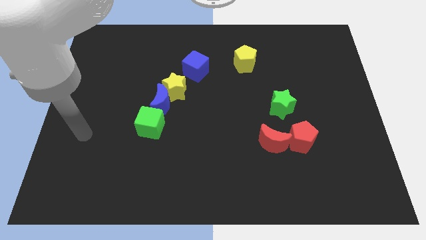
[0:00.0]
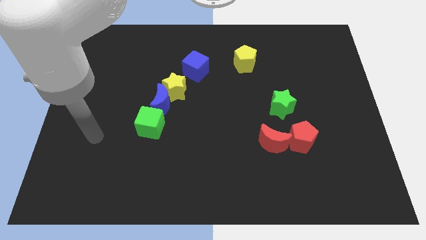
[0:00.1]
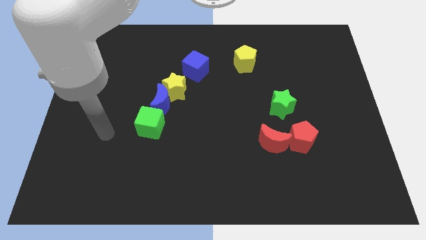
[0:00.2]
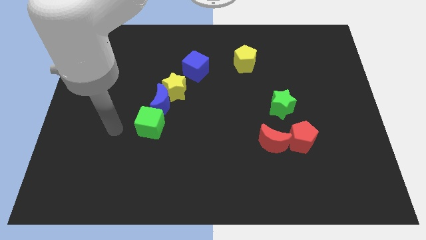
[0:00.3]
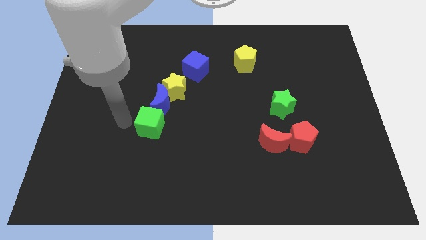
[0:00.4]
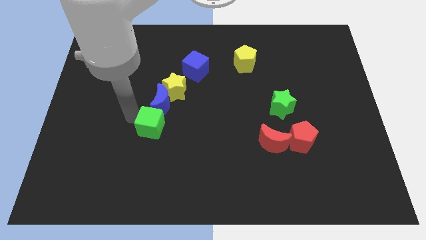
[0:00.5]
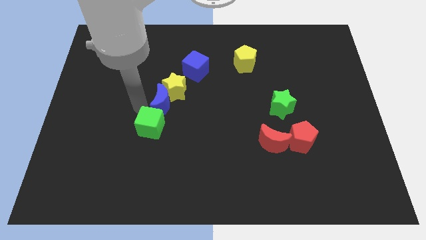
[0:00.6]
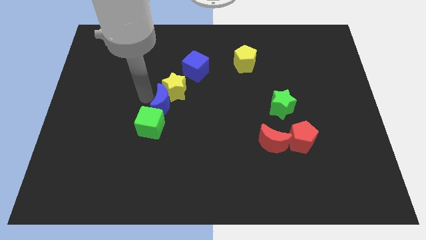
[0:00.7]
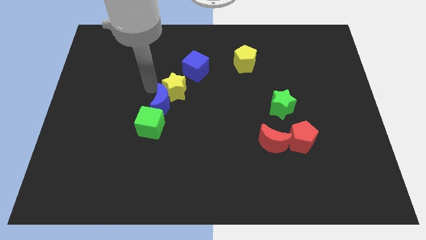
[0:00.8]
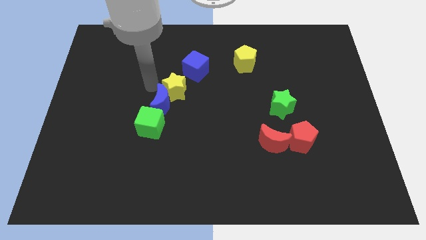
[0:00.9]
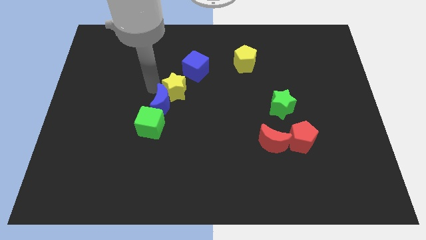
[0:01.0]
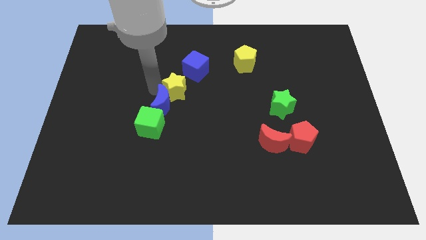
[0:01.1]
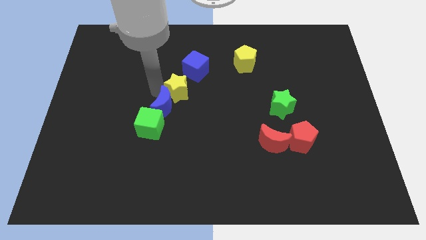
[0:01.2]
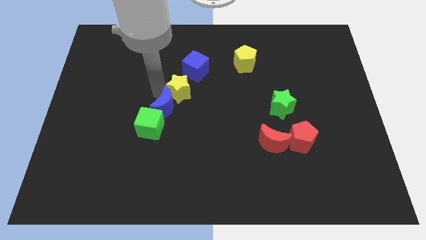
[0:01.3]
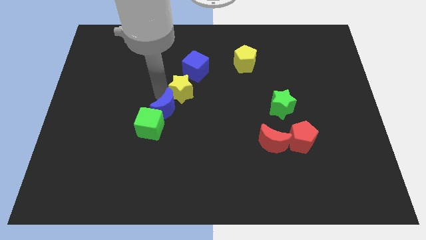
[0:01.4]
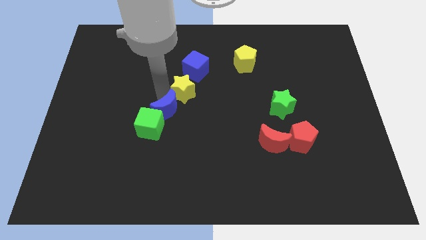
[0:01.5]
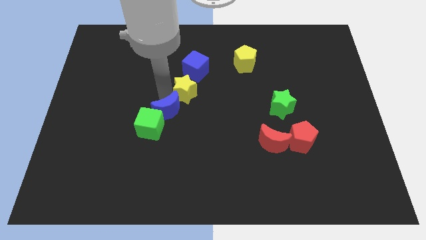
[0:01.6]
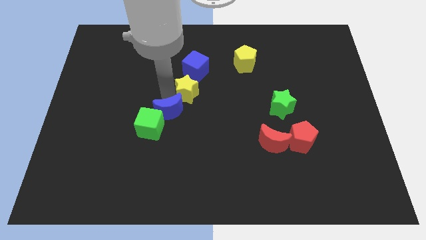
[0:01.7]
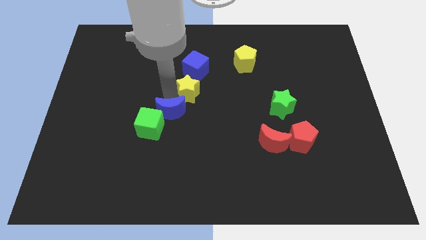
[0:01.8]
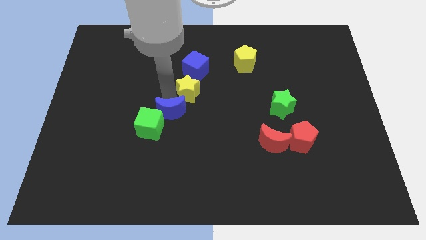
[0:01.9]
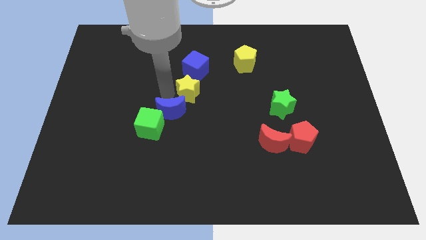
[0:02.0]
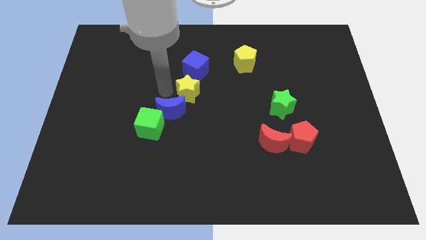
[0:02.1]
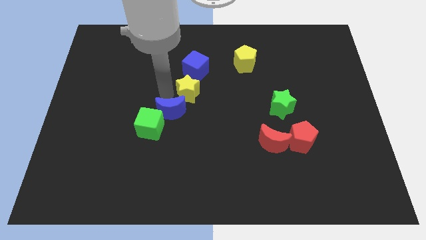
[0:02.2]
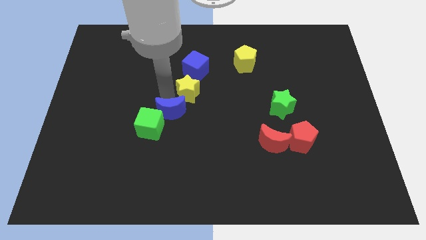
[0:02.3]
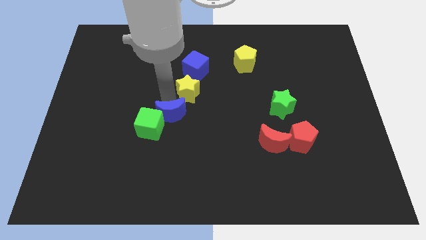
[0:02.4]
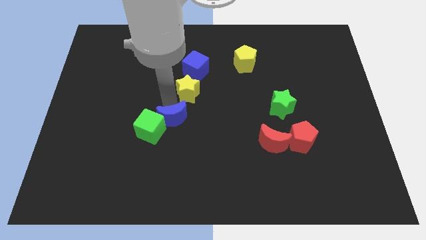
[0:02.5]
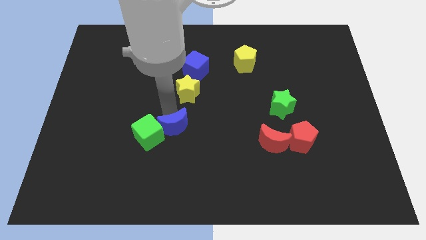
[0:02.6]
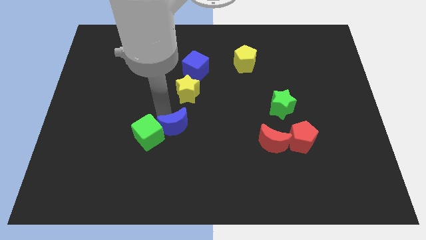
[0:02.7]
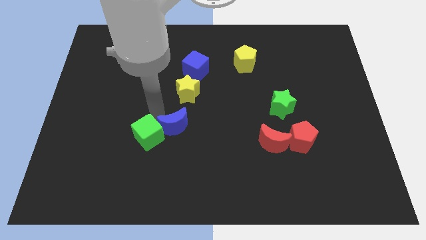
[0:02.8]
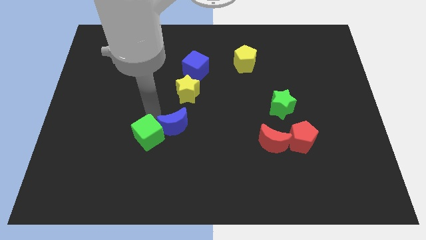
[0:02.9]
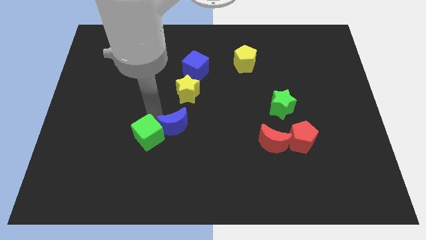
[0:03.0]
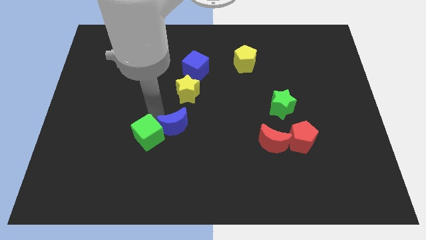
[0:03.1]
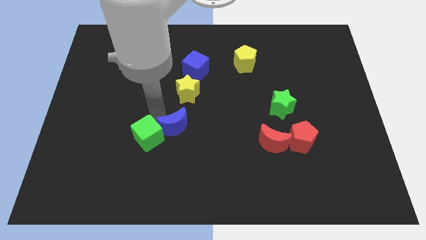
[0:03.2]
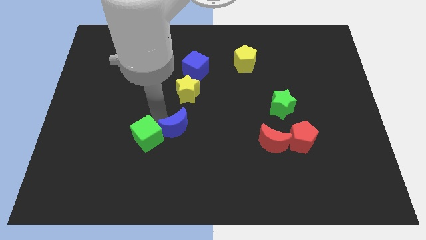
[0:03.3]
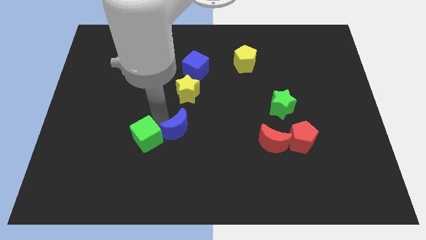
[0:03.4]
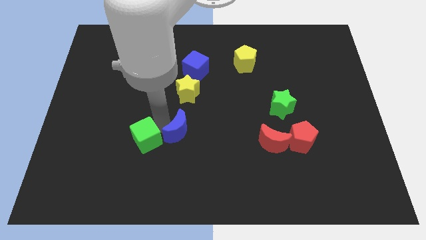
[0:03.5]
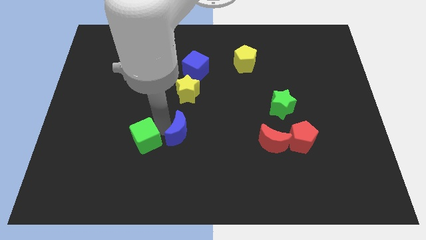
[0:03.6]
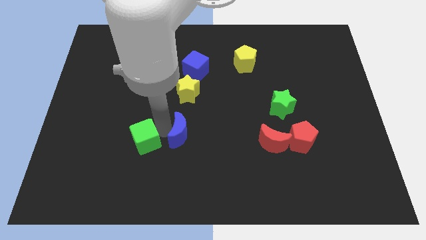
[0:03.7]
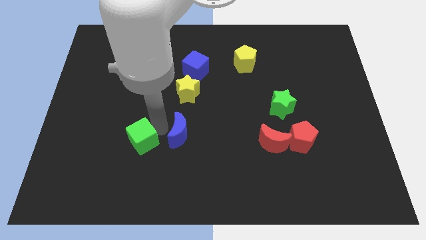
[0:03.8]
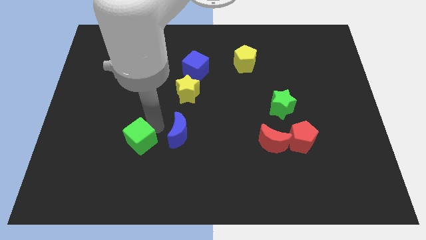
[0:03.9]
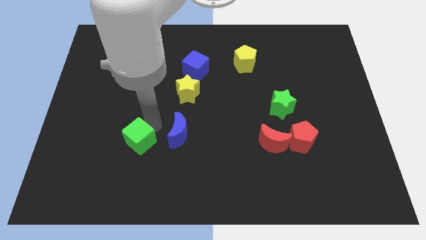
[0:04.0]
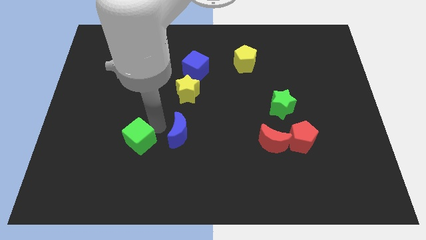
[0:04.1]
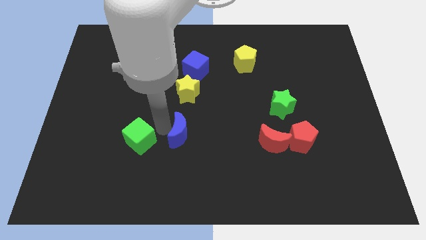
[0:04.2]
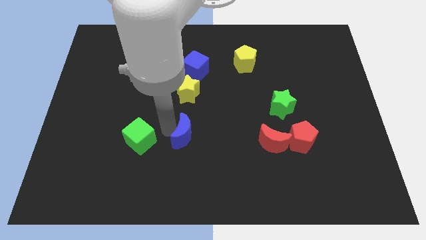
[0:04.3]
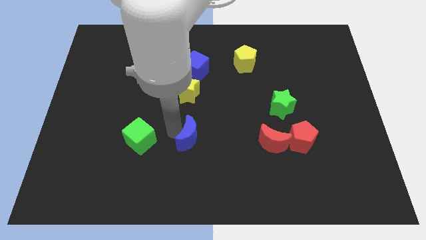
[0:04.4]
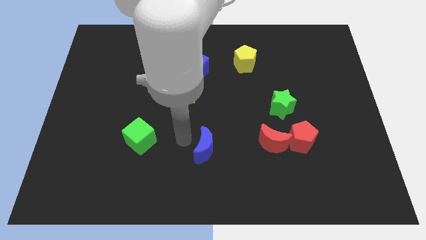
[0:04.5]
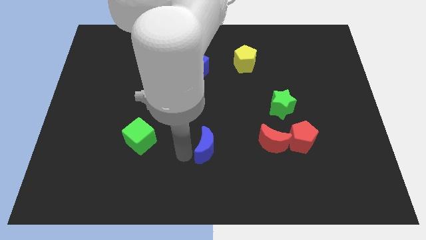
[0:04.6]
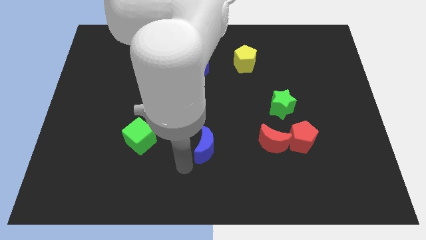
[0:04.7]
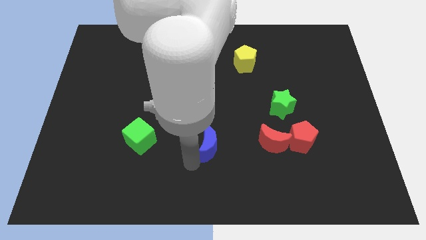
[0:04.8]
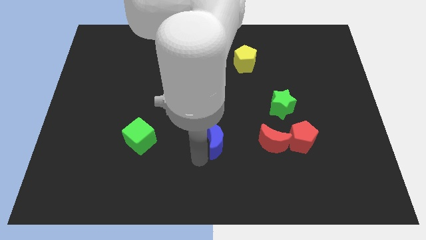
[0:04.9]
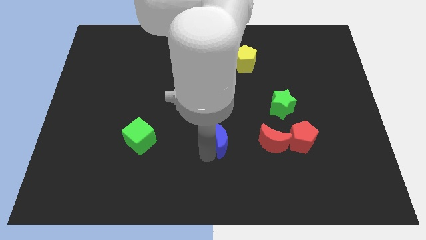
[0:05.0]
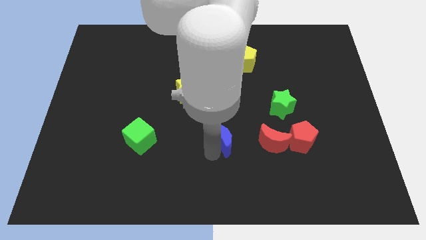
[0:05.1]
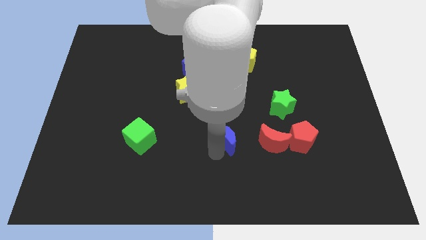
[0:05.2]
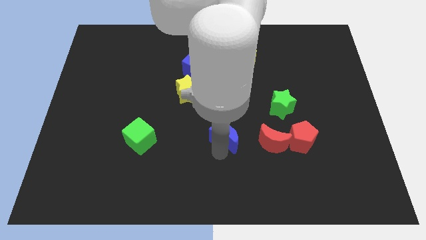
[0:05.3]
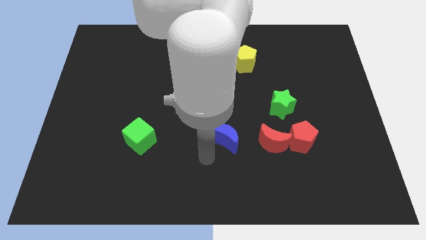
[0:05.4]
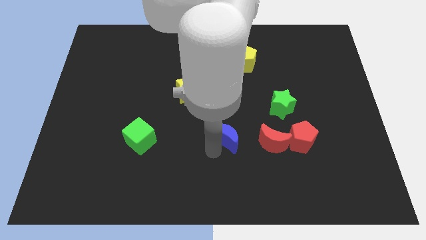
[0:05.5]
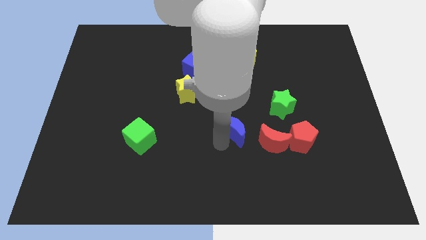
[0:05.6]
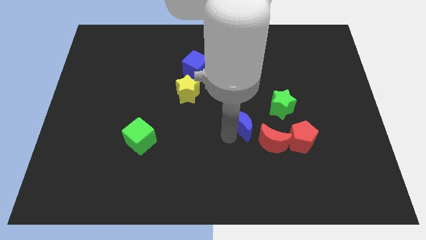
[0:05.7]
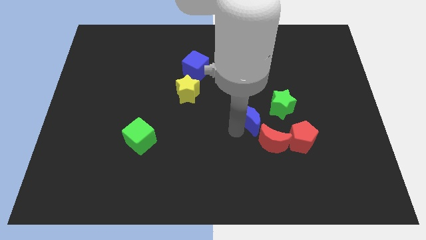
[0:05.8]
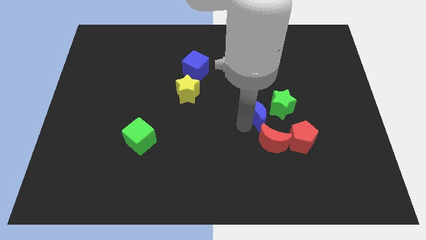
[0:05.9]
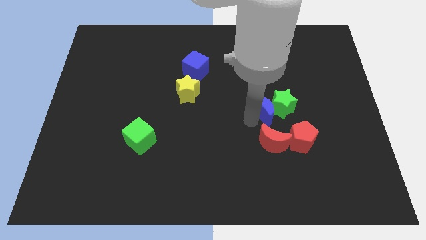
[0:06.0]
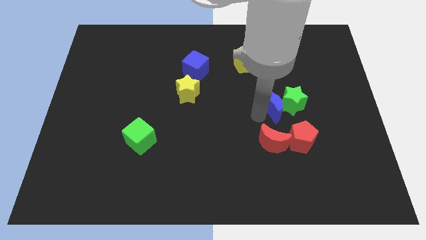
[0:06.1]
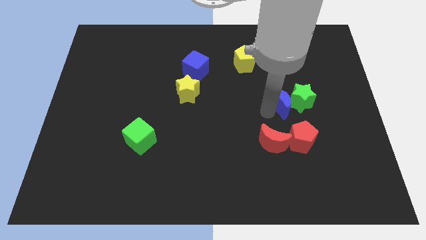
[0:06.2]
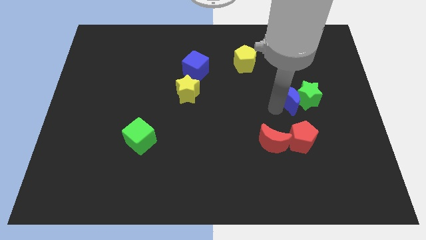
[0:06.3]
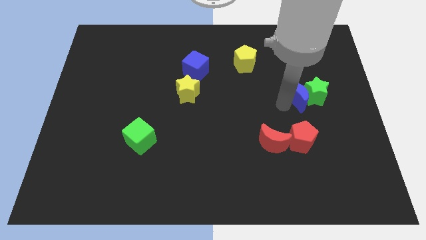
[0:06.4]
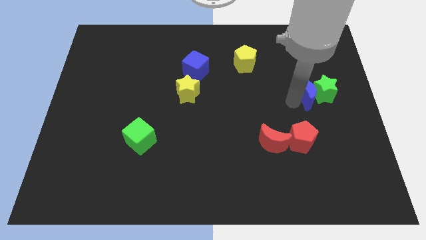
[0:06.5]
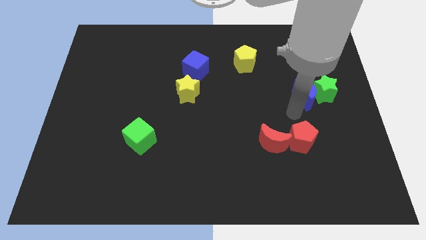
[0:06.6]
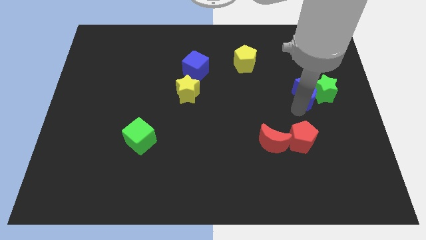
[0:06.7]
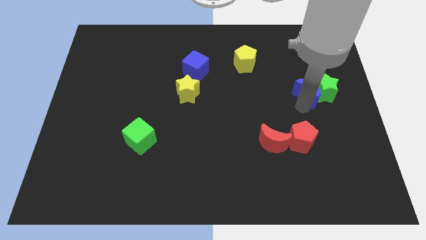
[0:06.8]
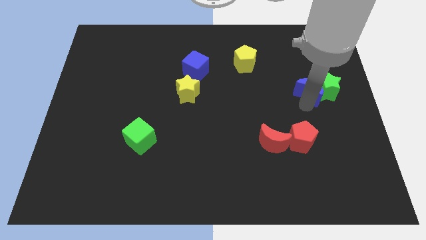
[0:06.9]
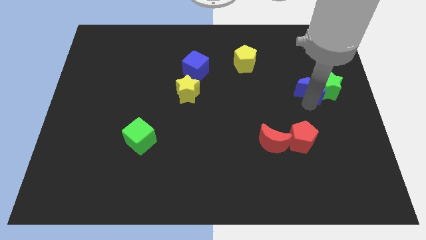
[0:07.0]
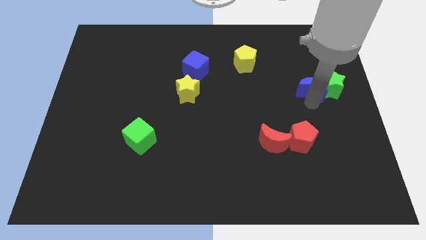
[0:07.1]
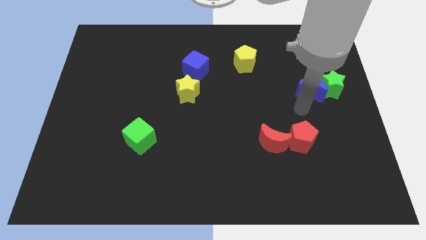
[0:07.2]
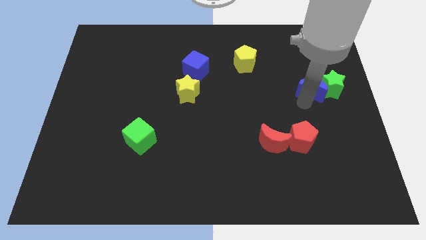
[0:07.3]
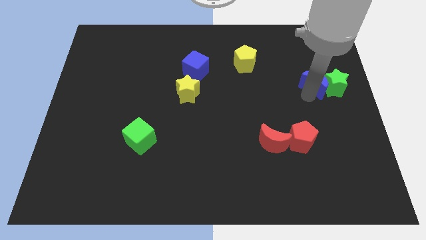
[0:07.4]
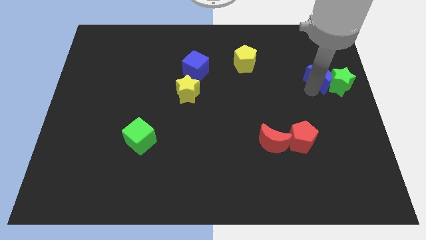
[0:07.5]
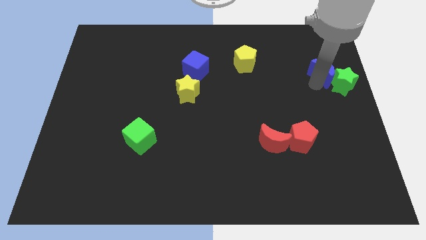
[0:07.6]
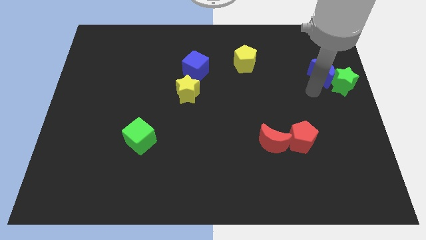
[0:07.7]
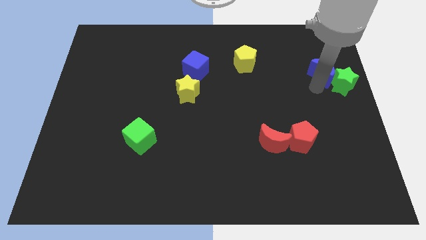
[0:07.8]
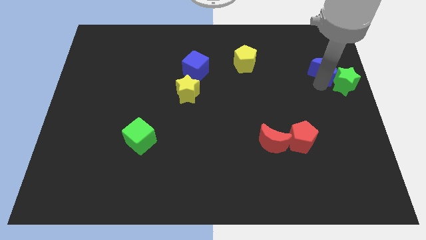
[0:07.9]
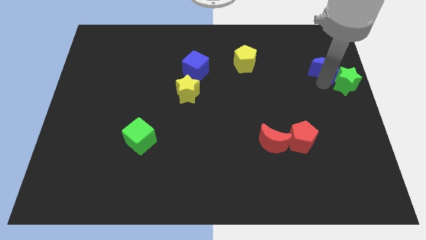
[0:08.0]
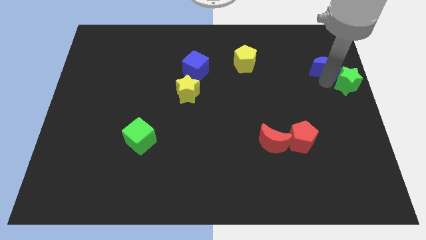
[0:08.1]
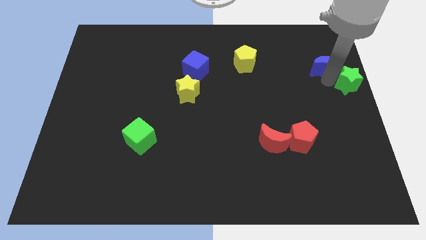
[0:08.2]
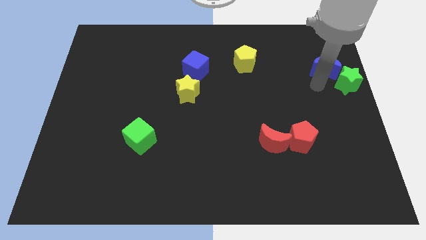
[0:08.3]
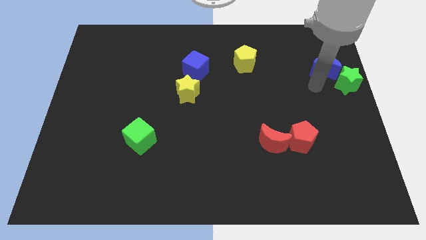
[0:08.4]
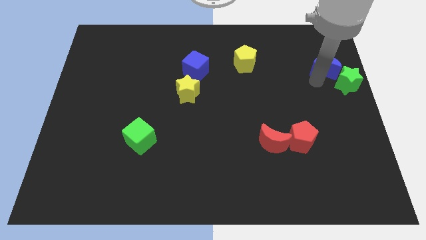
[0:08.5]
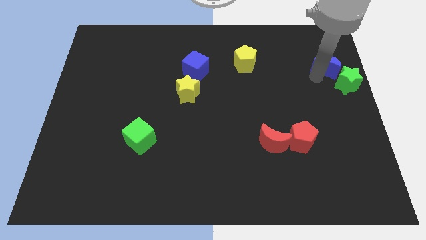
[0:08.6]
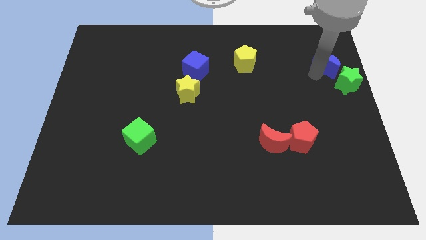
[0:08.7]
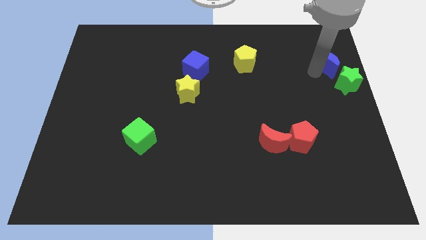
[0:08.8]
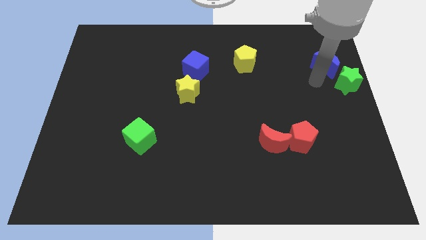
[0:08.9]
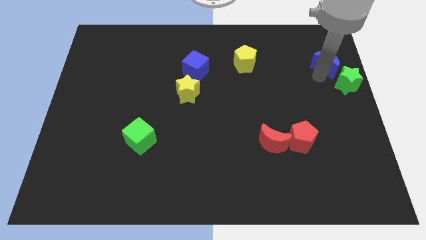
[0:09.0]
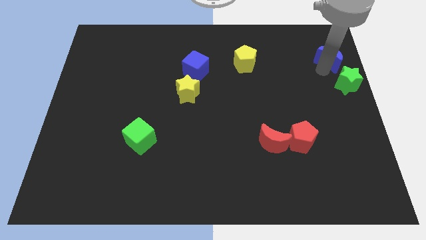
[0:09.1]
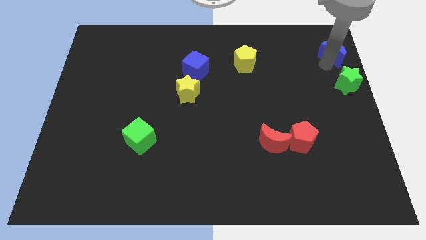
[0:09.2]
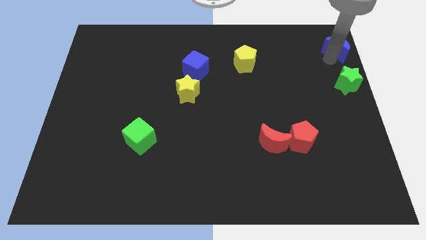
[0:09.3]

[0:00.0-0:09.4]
move the blue moon to the top right of the board
